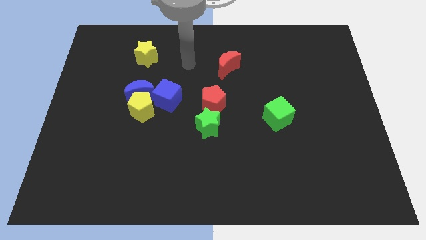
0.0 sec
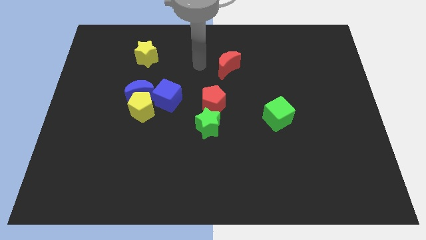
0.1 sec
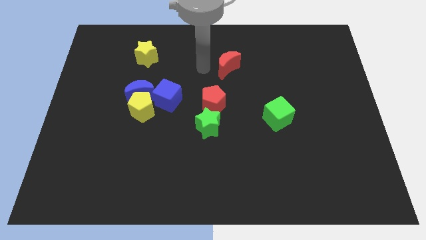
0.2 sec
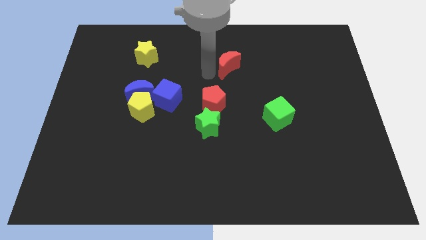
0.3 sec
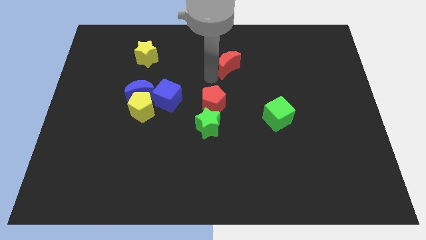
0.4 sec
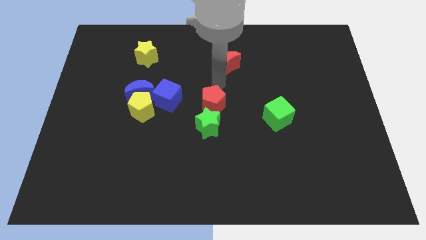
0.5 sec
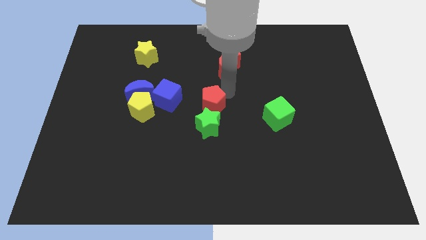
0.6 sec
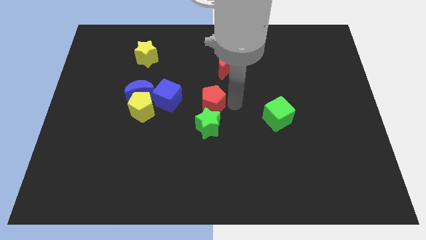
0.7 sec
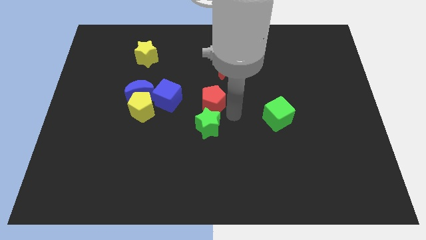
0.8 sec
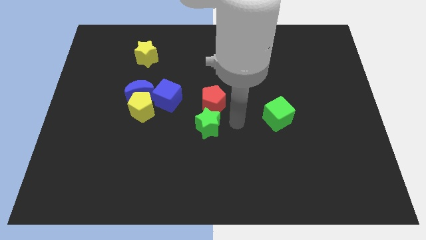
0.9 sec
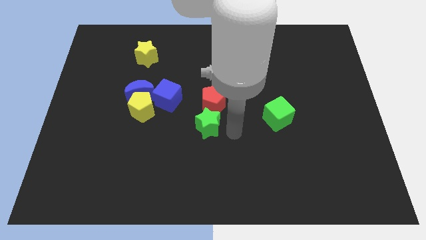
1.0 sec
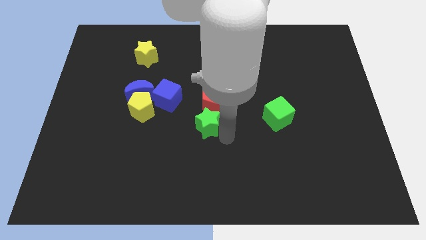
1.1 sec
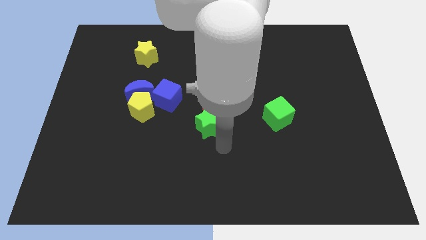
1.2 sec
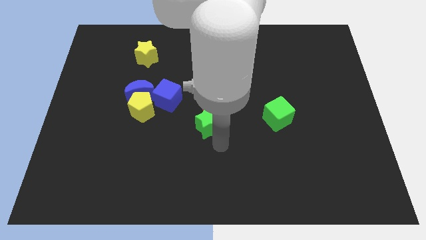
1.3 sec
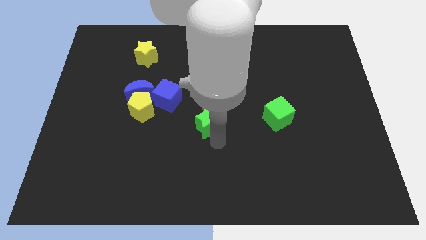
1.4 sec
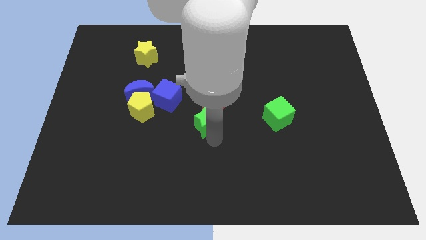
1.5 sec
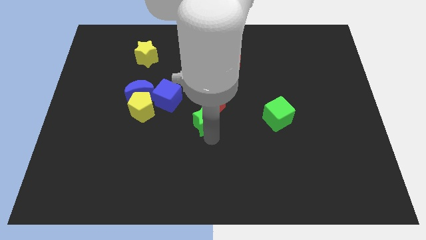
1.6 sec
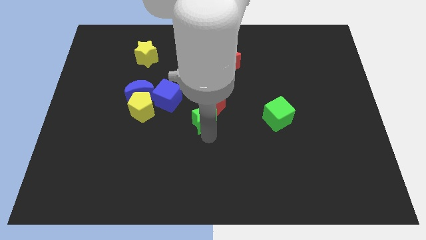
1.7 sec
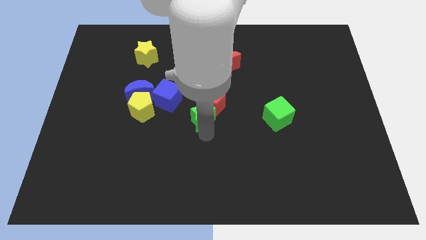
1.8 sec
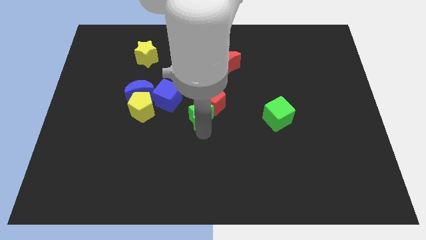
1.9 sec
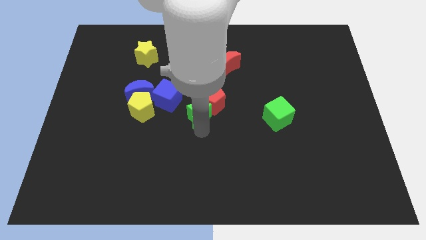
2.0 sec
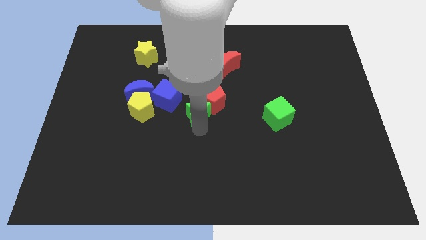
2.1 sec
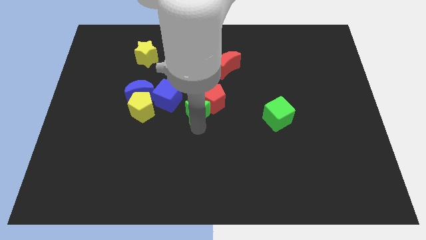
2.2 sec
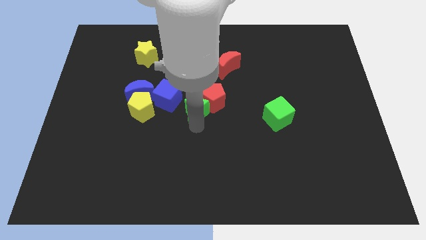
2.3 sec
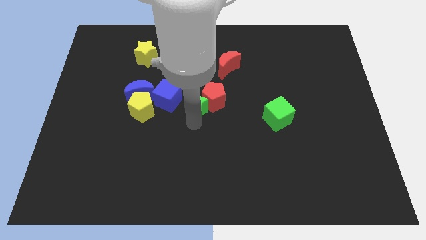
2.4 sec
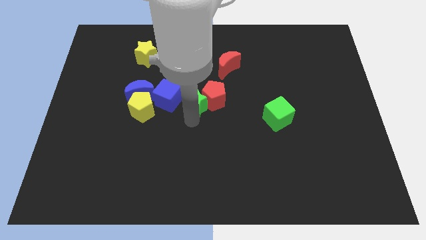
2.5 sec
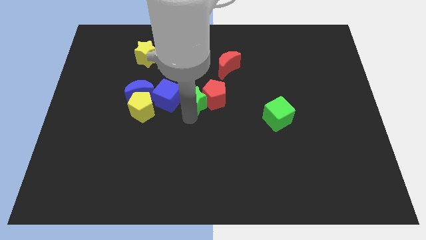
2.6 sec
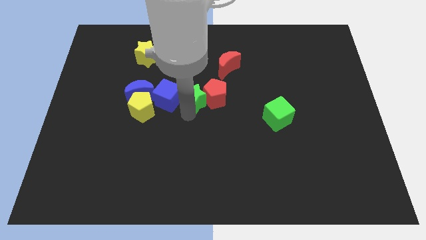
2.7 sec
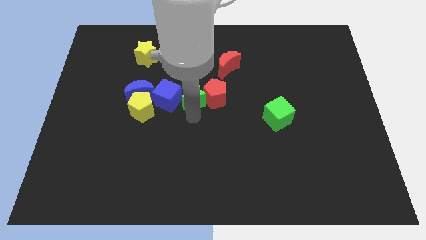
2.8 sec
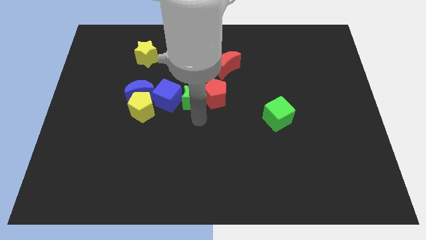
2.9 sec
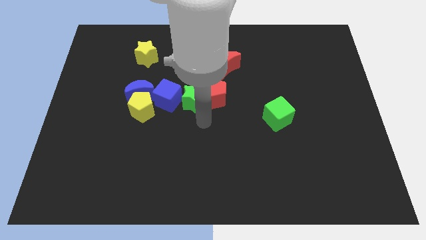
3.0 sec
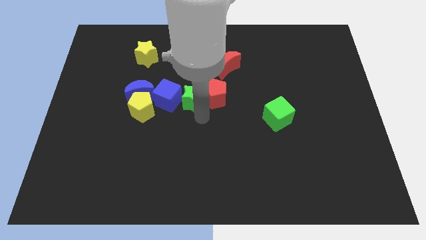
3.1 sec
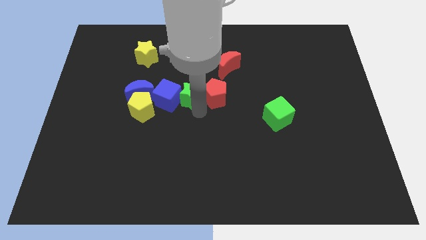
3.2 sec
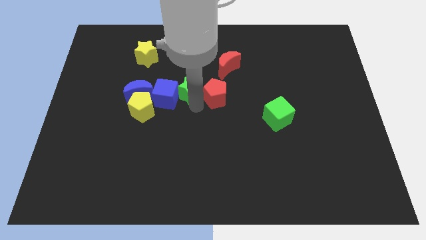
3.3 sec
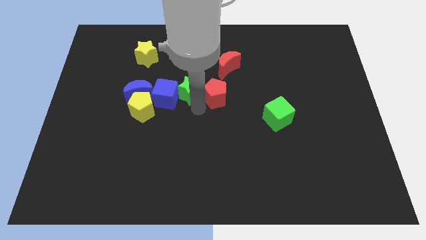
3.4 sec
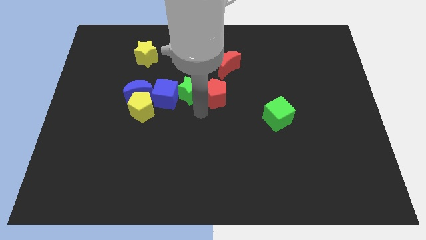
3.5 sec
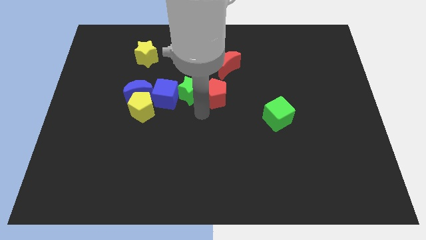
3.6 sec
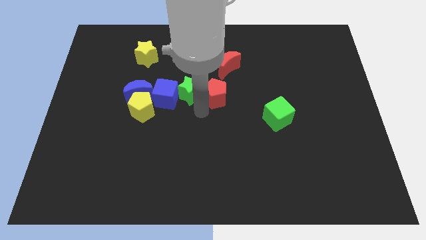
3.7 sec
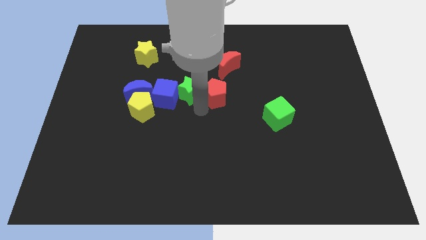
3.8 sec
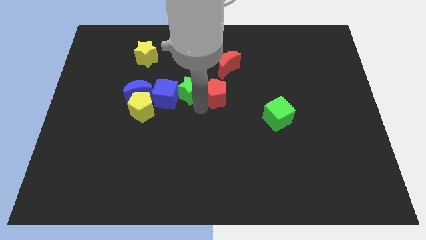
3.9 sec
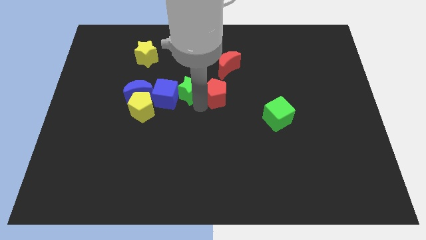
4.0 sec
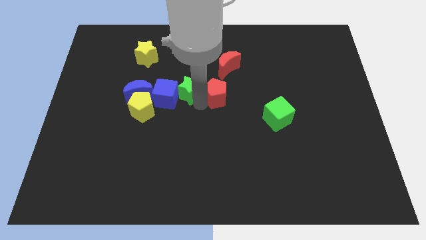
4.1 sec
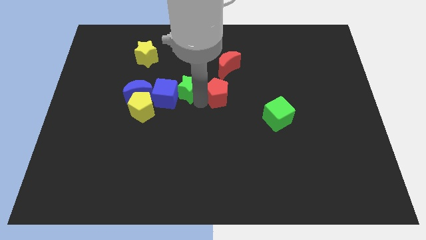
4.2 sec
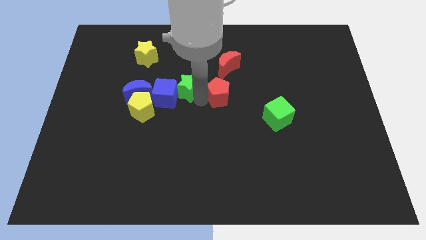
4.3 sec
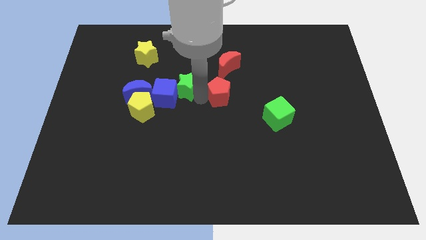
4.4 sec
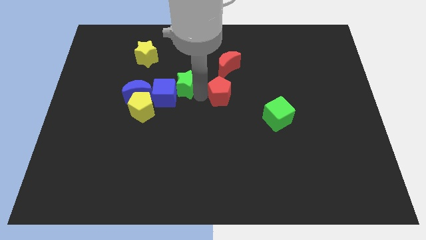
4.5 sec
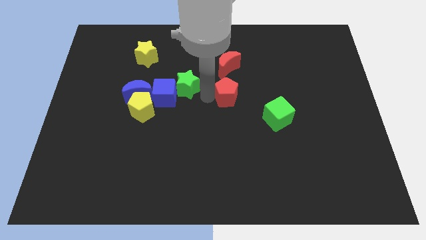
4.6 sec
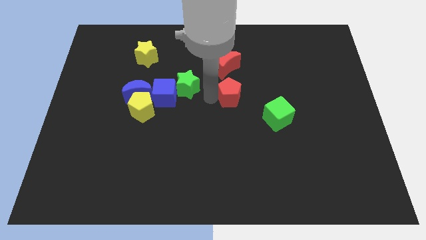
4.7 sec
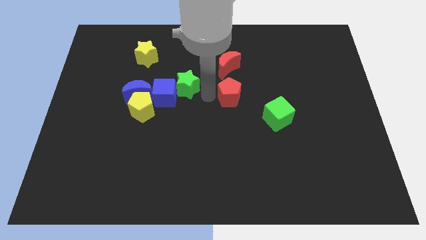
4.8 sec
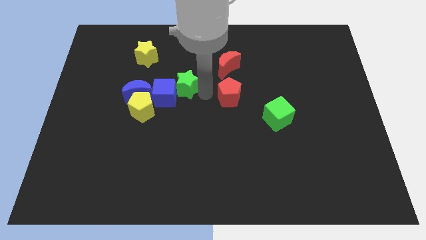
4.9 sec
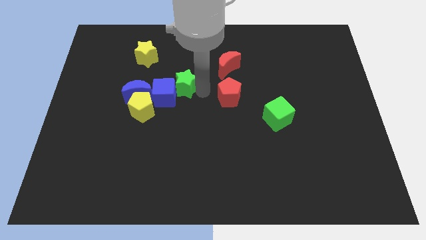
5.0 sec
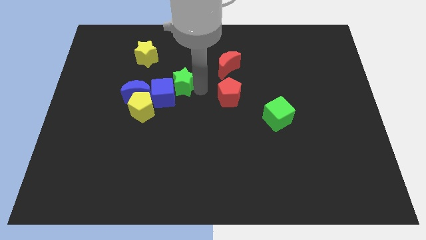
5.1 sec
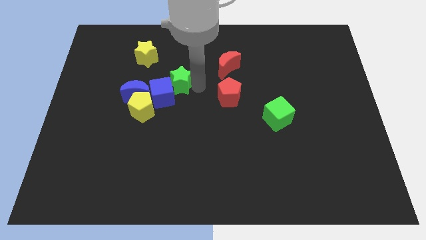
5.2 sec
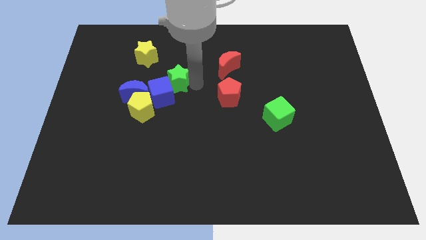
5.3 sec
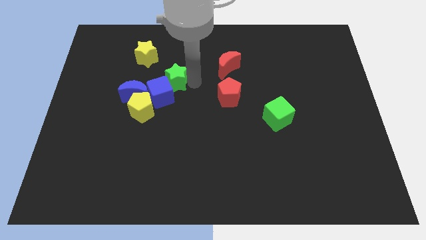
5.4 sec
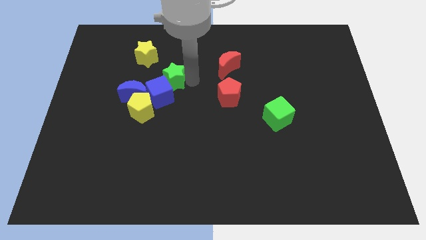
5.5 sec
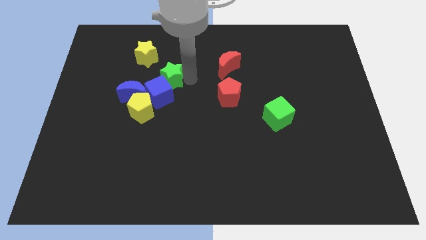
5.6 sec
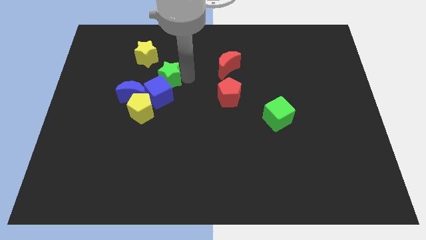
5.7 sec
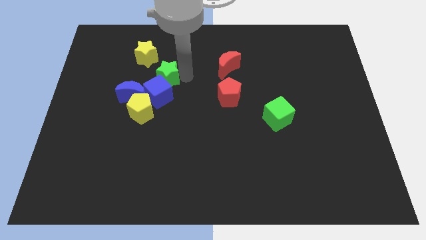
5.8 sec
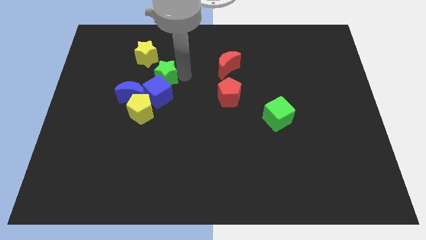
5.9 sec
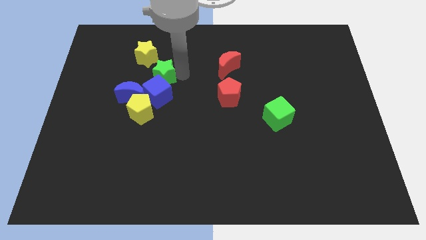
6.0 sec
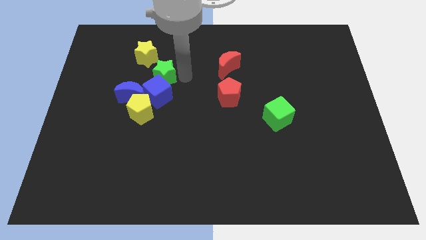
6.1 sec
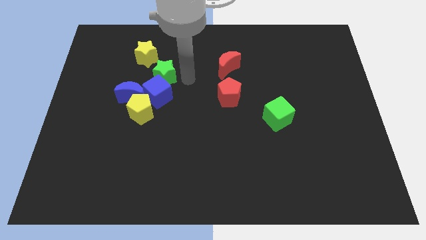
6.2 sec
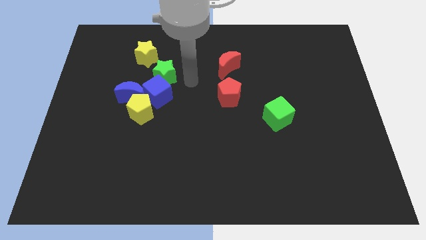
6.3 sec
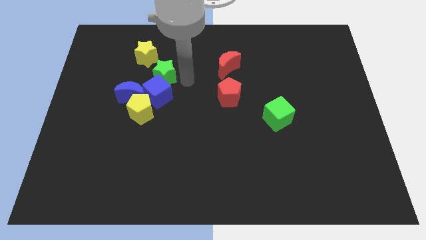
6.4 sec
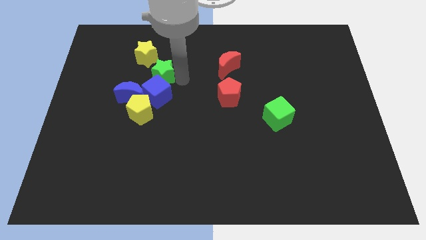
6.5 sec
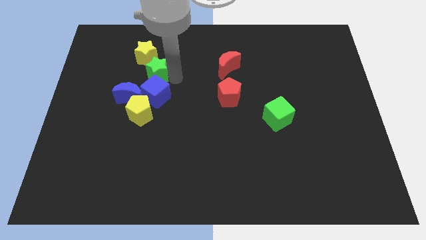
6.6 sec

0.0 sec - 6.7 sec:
push the green star diagonally upwards and to the left

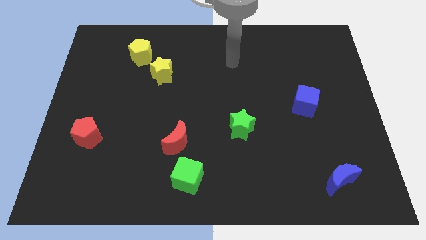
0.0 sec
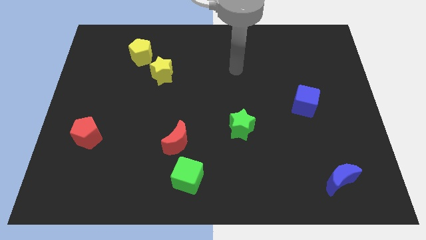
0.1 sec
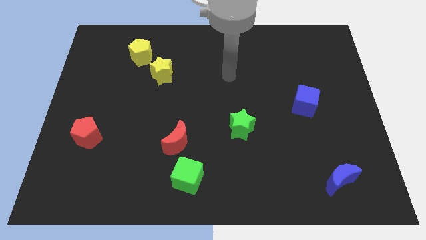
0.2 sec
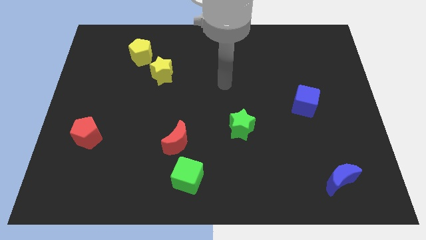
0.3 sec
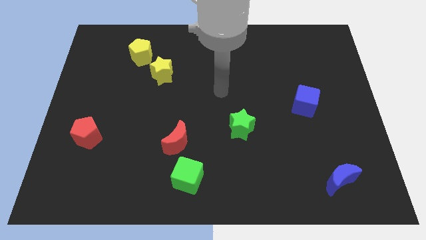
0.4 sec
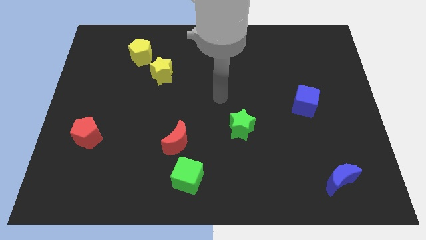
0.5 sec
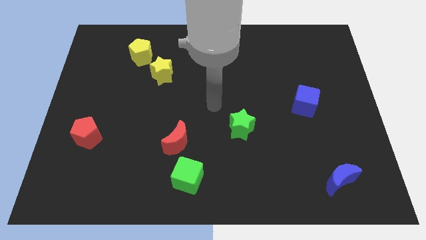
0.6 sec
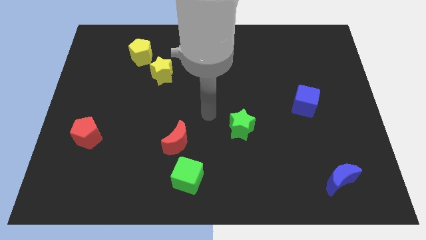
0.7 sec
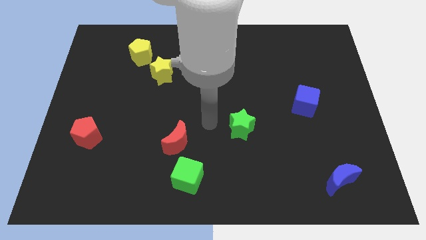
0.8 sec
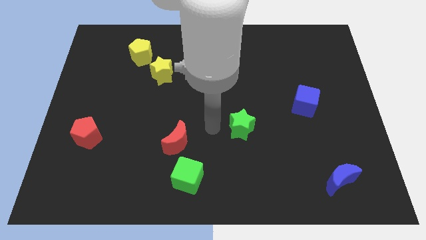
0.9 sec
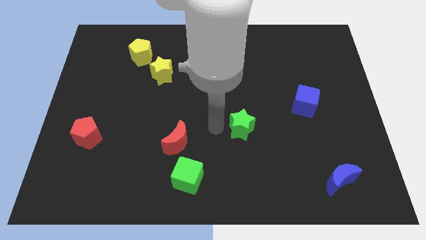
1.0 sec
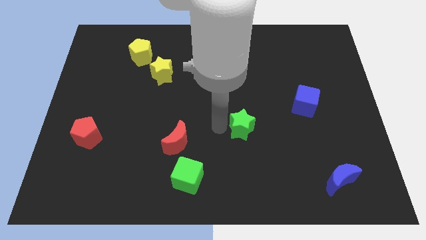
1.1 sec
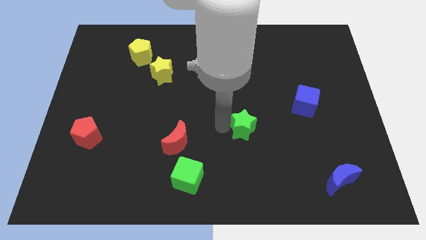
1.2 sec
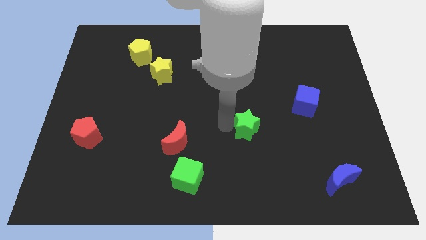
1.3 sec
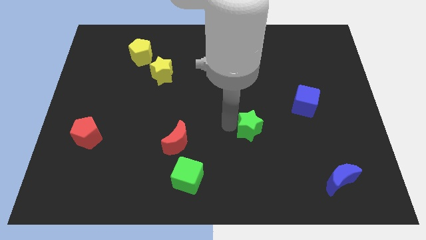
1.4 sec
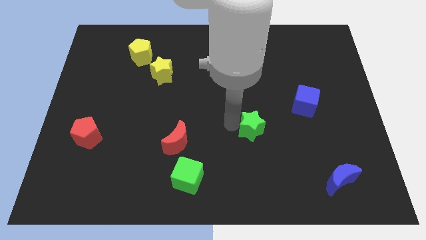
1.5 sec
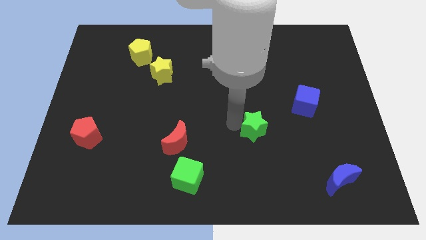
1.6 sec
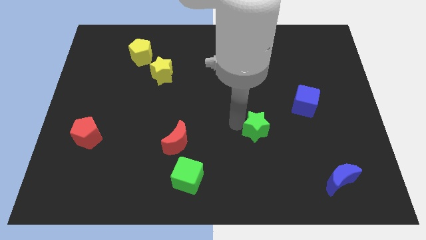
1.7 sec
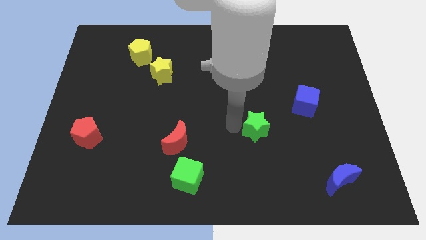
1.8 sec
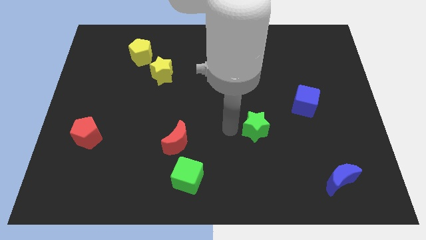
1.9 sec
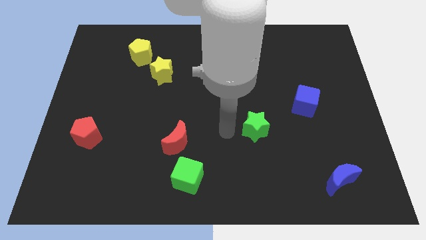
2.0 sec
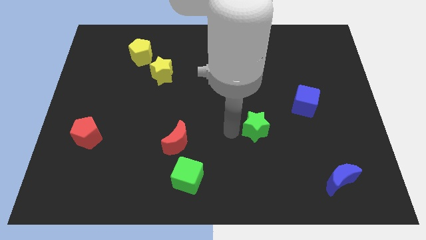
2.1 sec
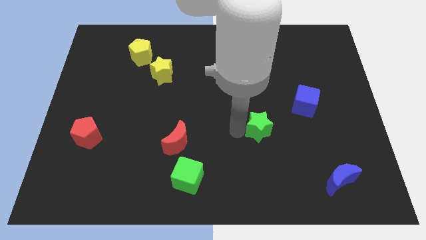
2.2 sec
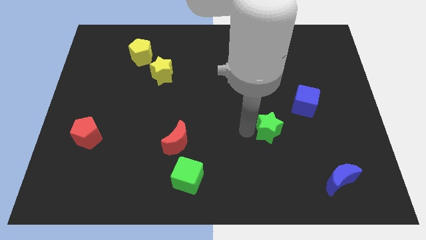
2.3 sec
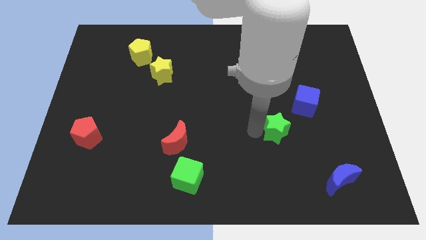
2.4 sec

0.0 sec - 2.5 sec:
slide the green star right a bit
